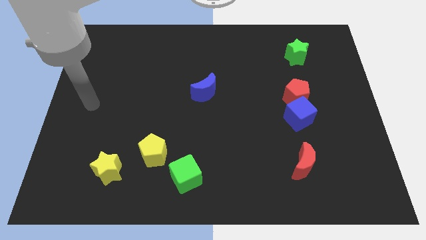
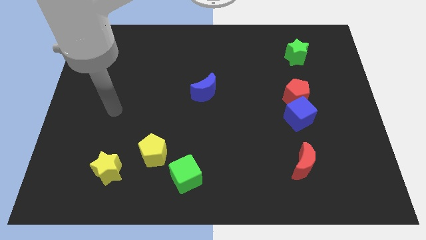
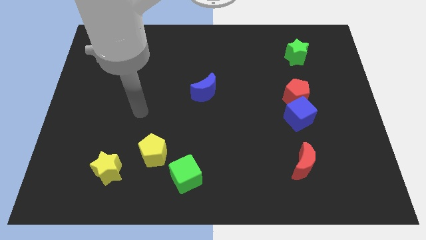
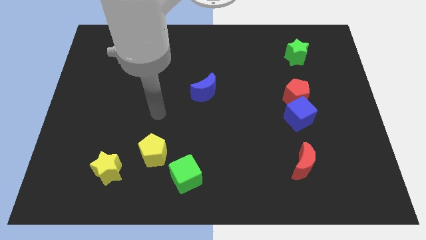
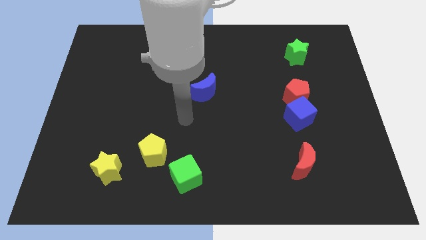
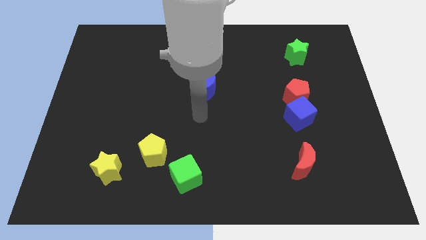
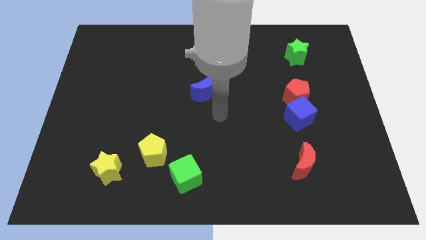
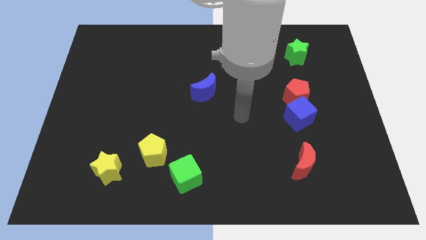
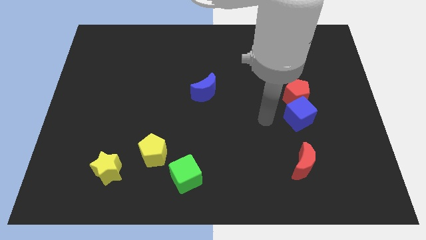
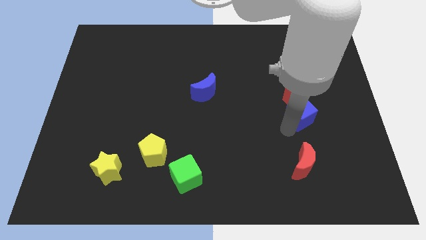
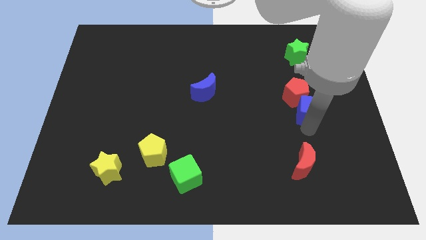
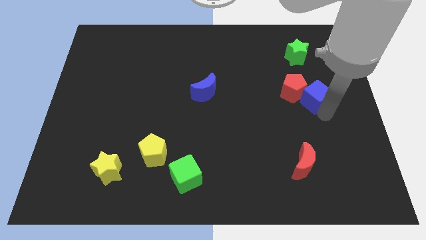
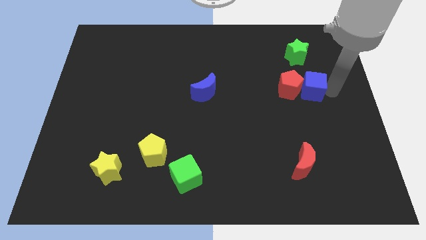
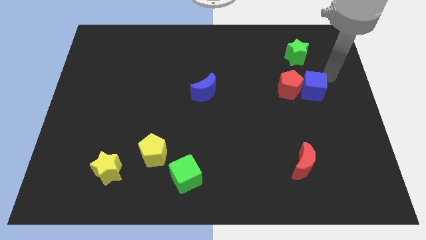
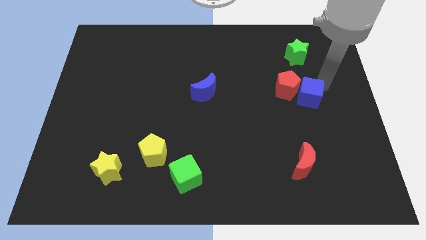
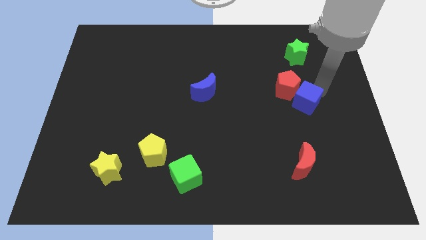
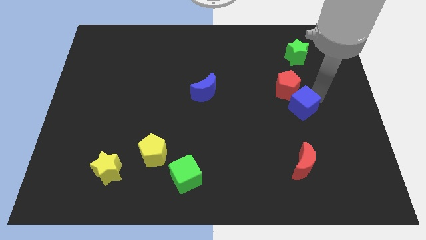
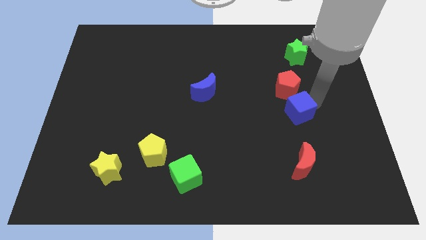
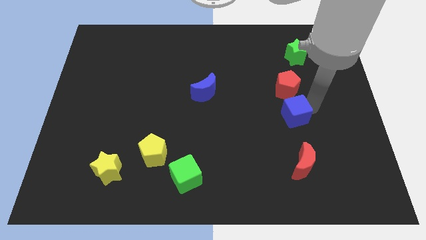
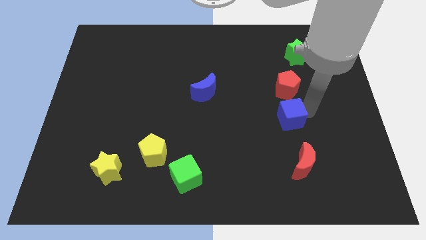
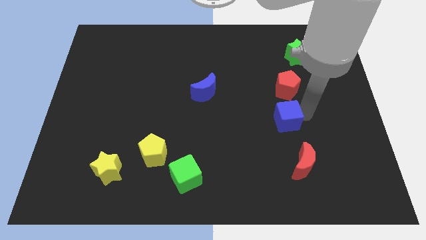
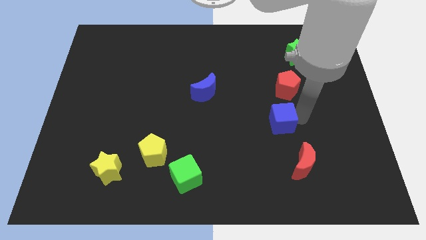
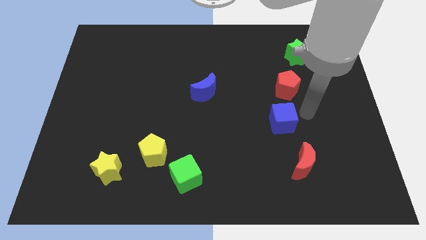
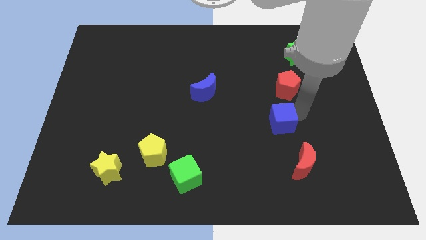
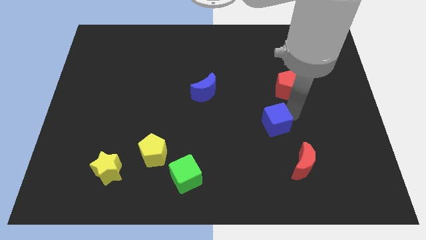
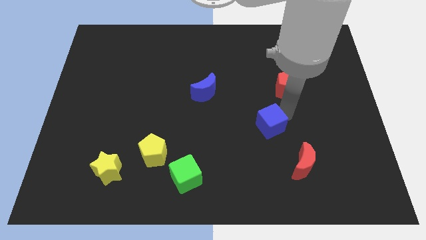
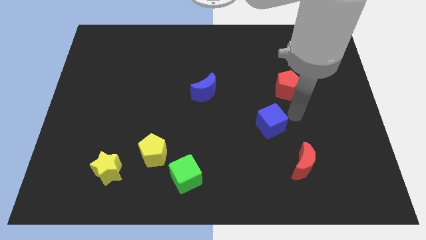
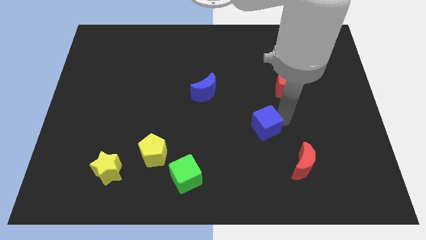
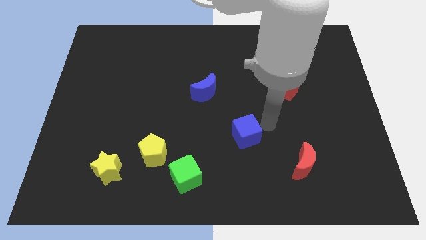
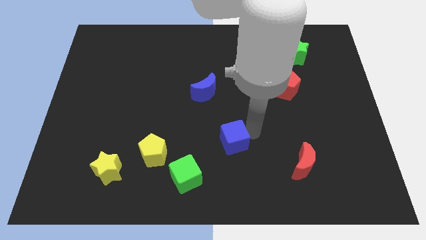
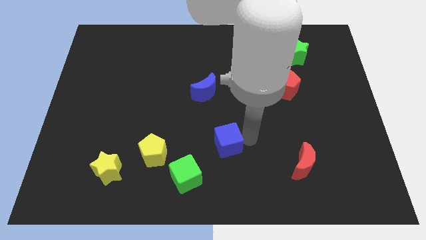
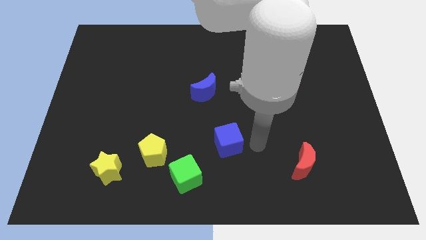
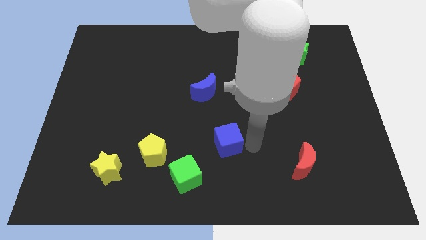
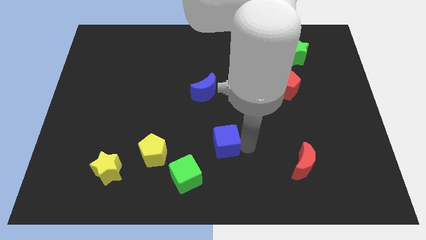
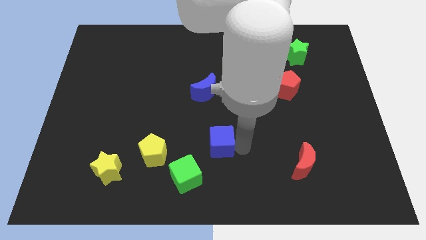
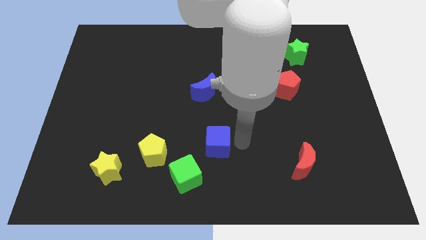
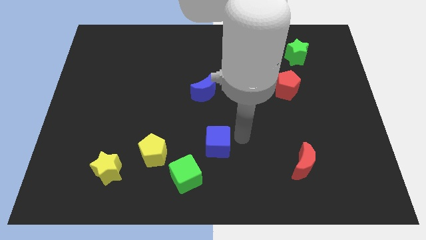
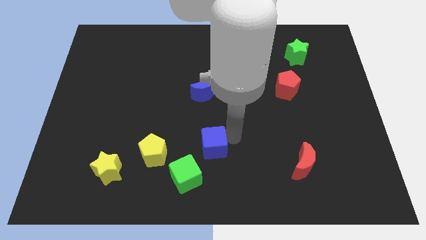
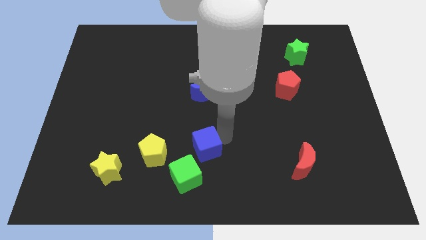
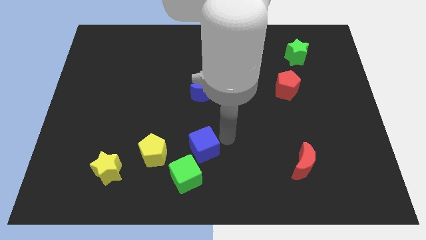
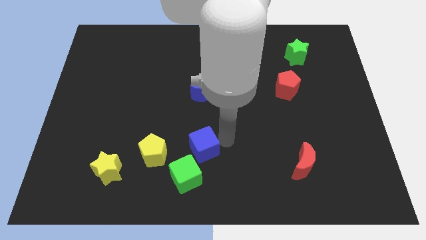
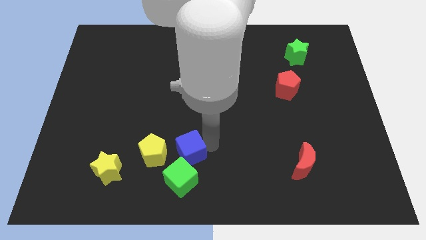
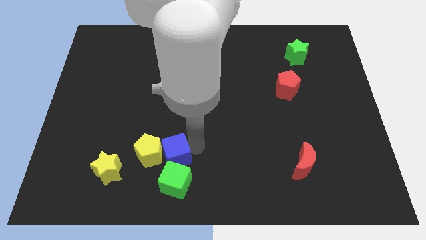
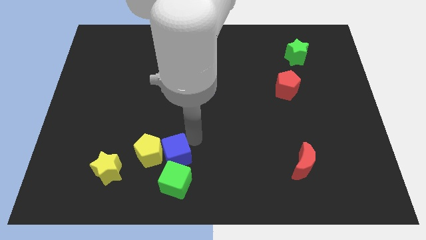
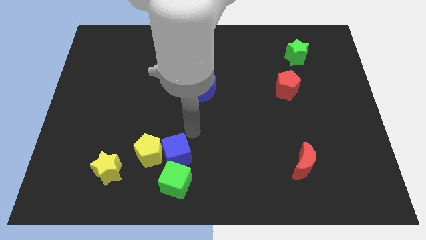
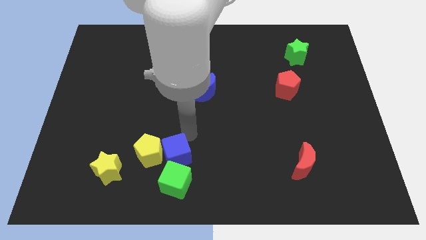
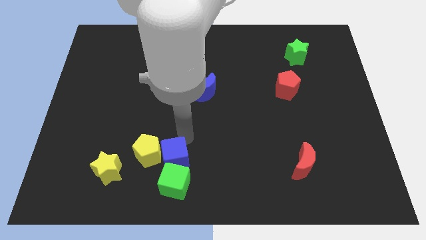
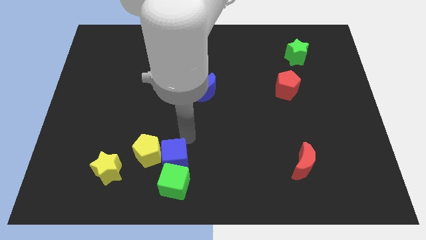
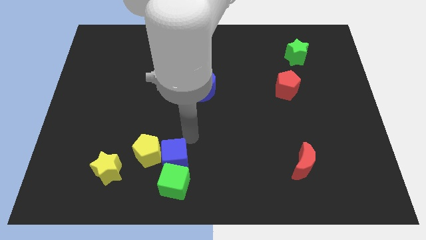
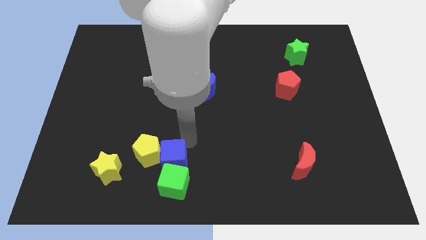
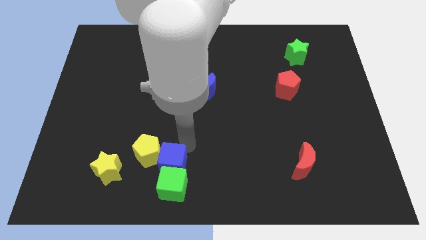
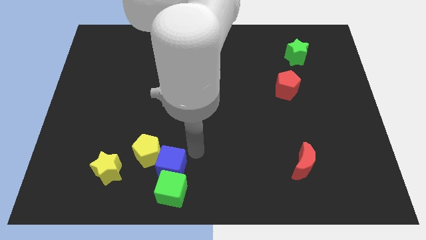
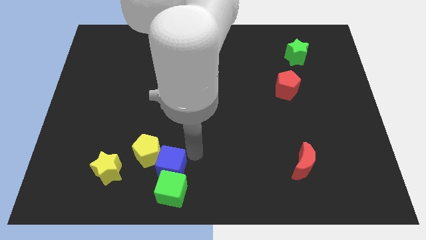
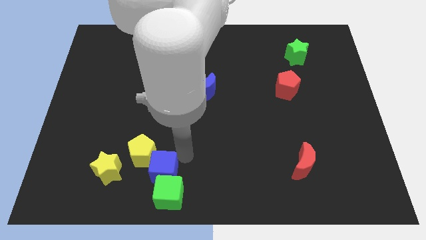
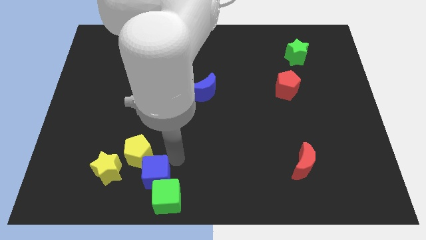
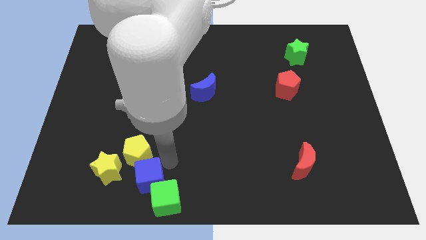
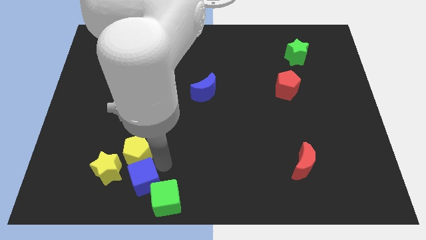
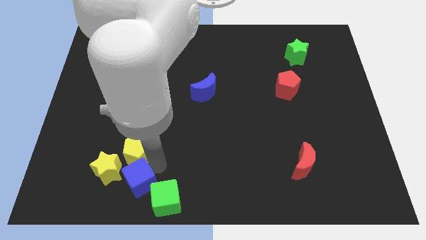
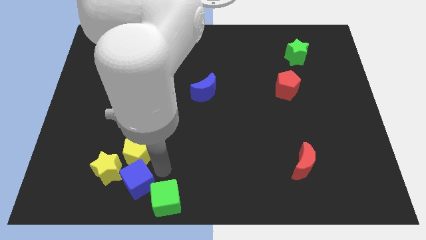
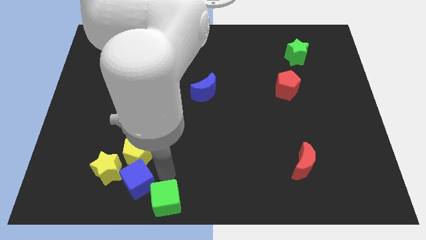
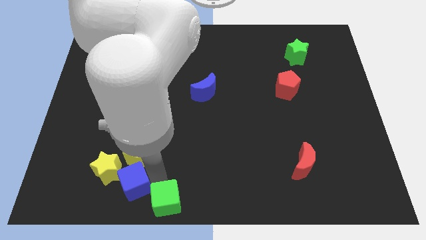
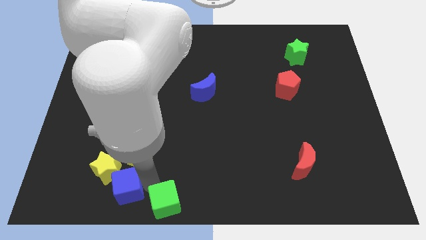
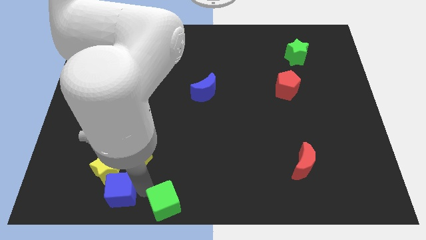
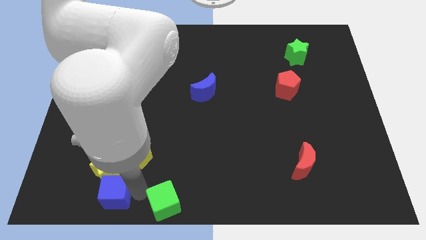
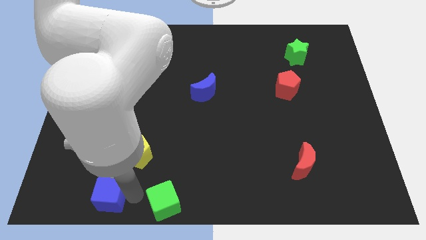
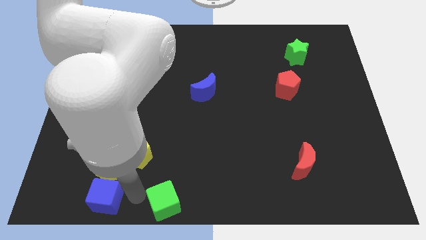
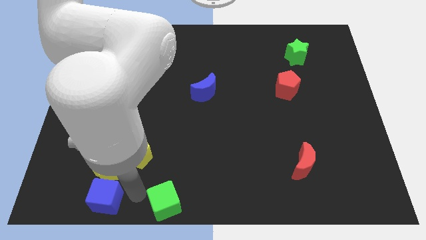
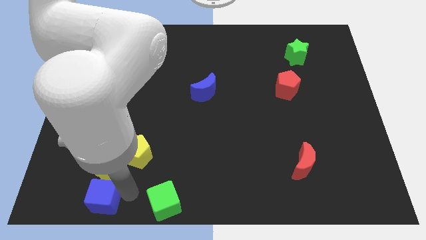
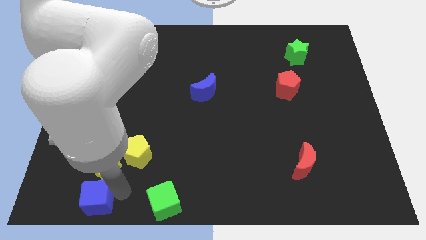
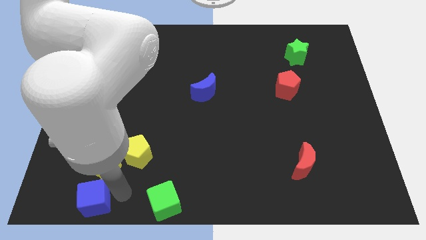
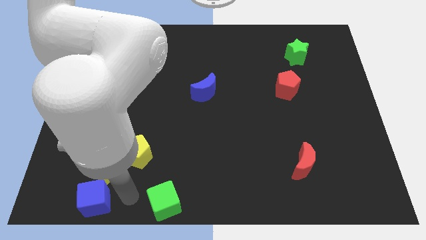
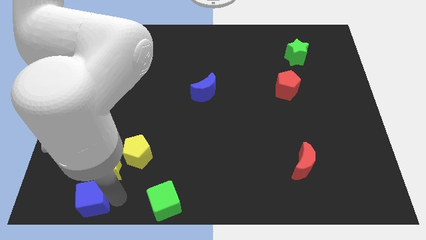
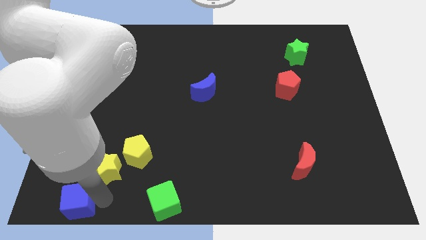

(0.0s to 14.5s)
slide the blue cube to the bottom left
